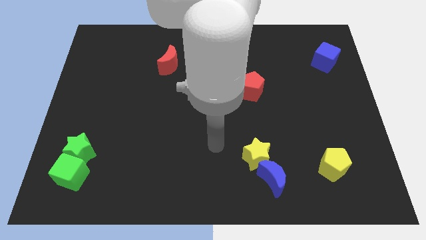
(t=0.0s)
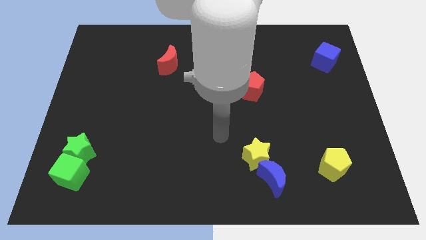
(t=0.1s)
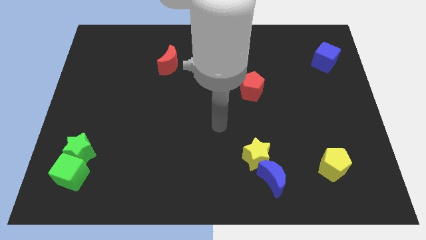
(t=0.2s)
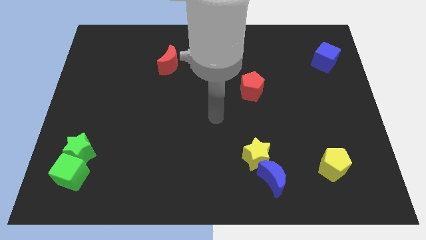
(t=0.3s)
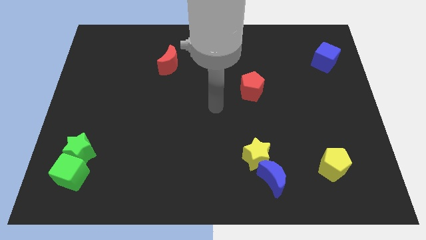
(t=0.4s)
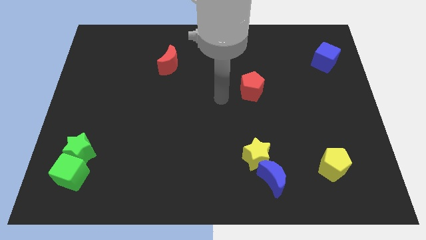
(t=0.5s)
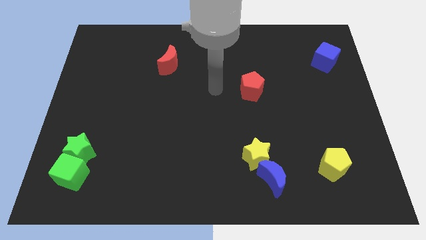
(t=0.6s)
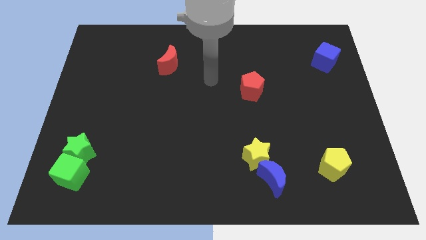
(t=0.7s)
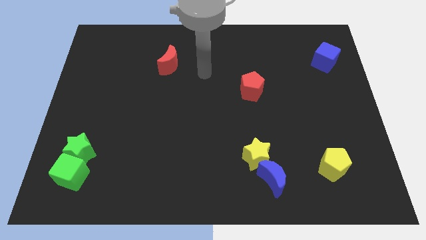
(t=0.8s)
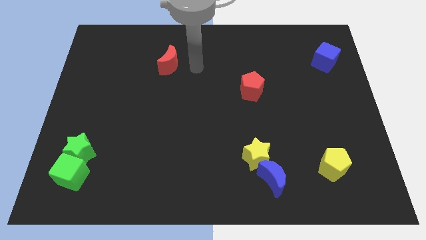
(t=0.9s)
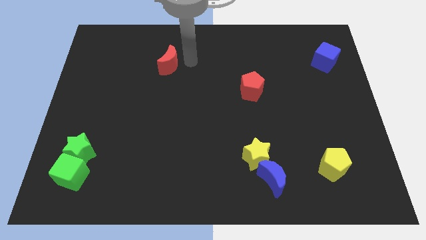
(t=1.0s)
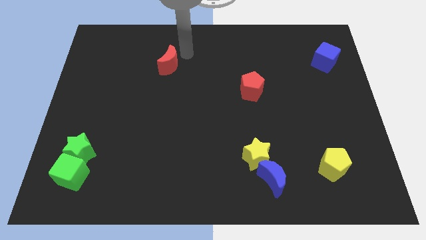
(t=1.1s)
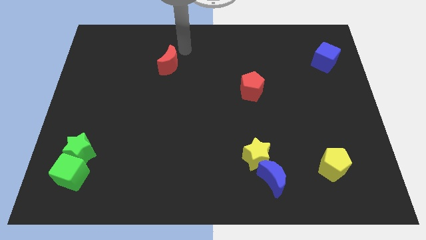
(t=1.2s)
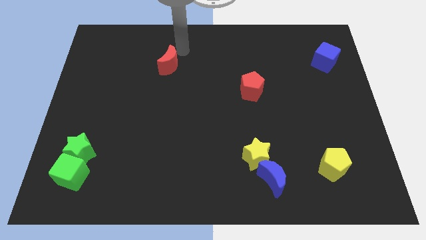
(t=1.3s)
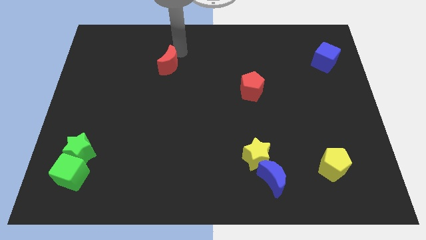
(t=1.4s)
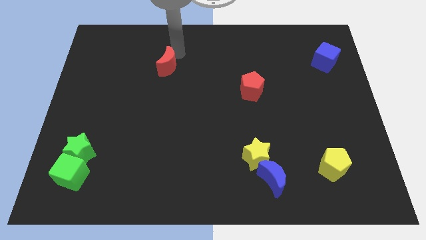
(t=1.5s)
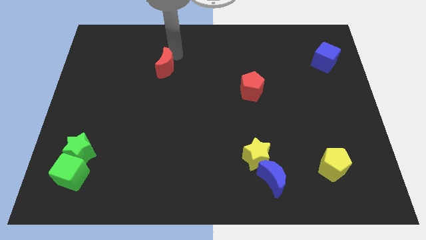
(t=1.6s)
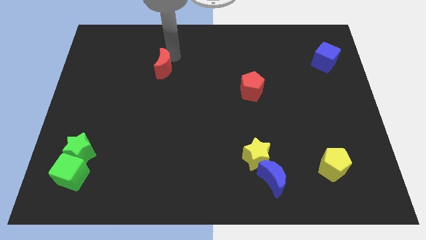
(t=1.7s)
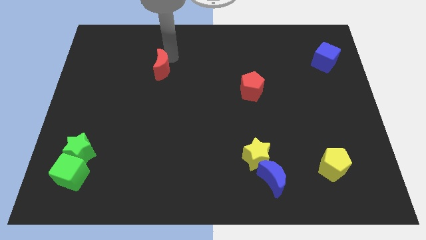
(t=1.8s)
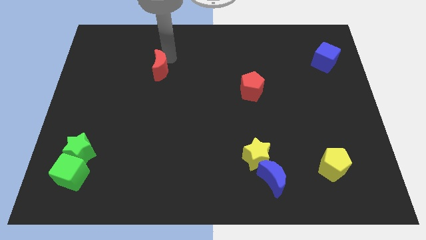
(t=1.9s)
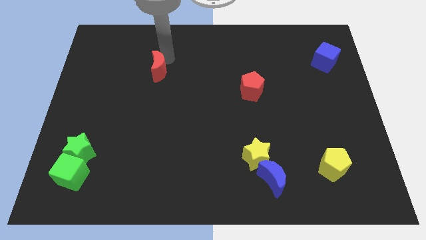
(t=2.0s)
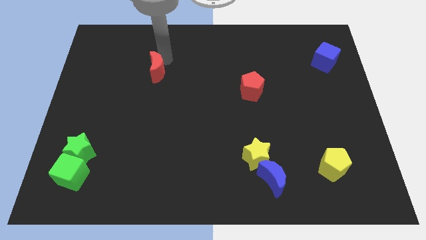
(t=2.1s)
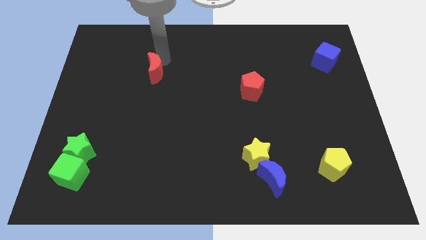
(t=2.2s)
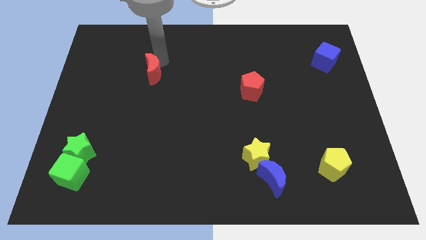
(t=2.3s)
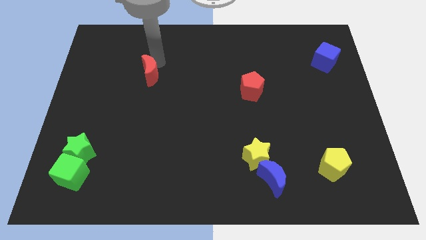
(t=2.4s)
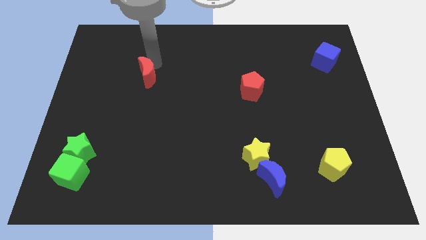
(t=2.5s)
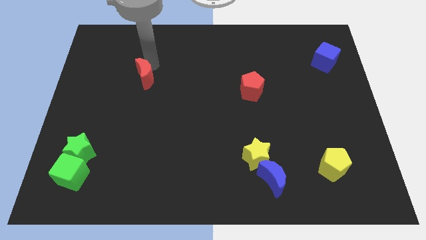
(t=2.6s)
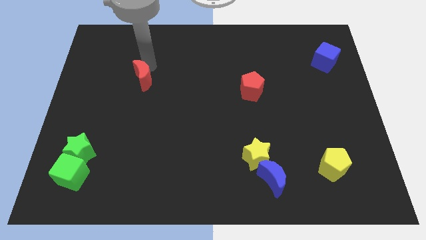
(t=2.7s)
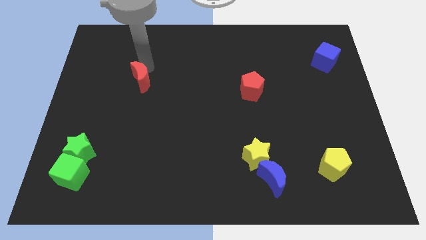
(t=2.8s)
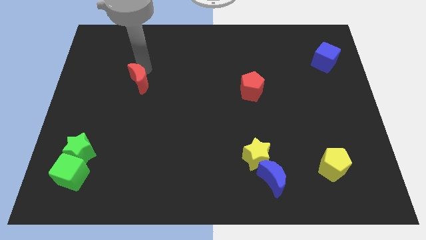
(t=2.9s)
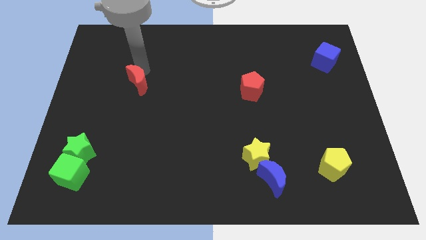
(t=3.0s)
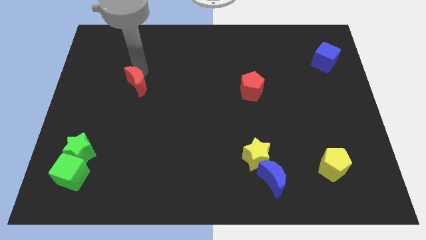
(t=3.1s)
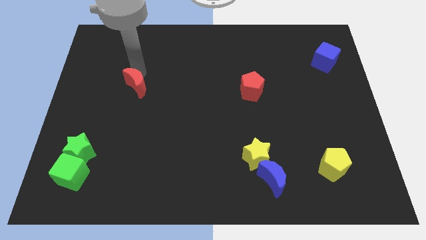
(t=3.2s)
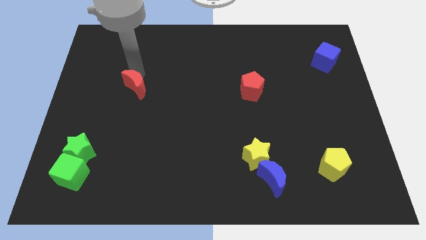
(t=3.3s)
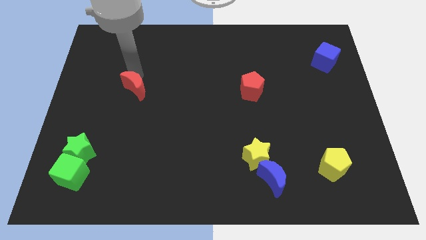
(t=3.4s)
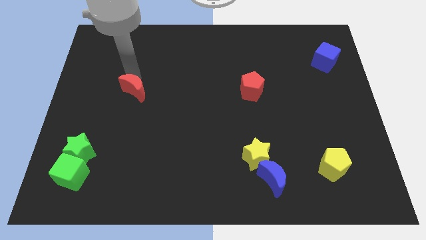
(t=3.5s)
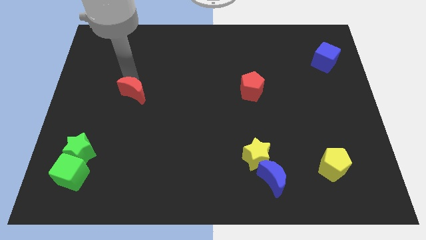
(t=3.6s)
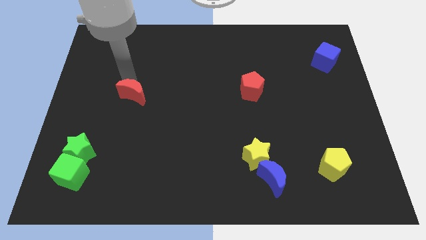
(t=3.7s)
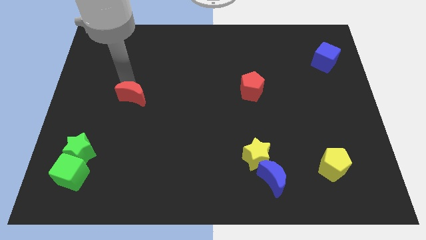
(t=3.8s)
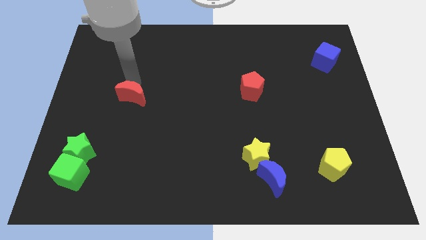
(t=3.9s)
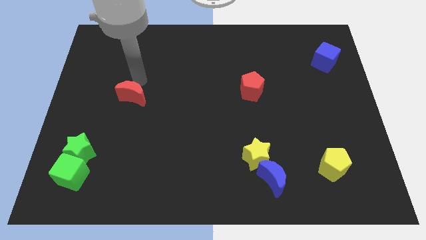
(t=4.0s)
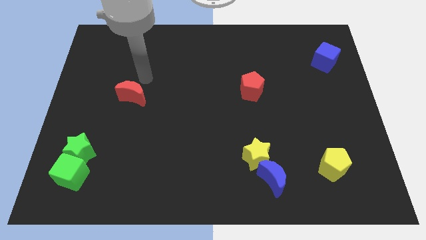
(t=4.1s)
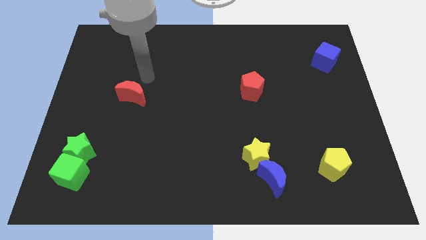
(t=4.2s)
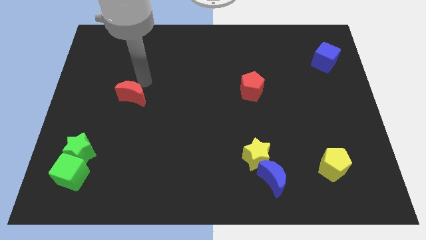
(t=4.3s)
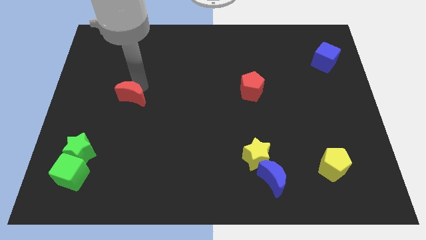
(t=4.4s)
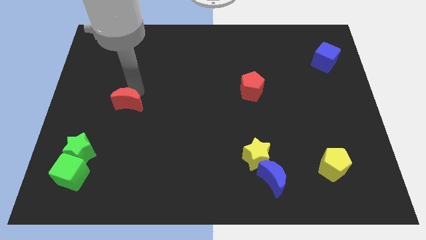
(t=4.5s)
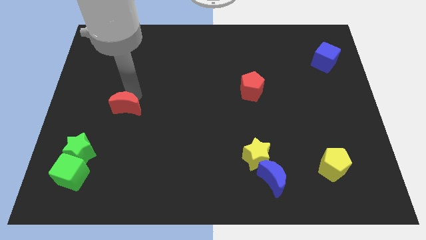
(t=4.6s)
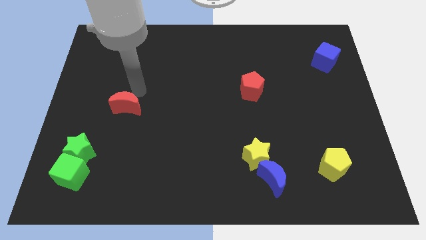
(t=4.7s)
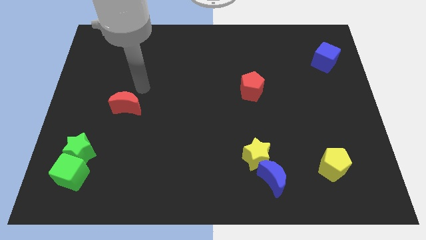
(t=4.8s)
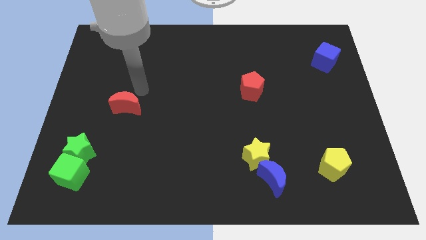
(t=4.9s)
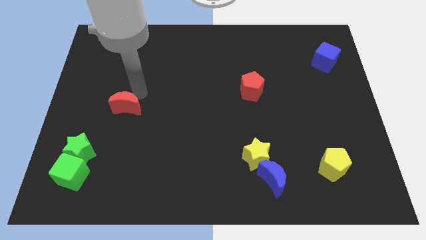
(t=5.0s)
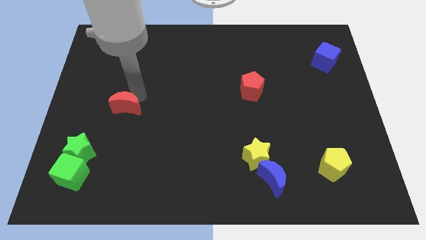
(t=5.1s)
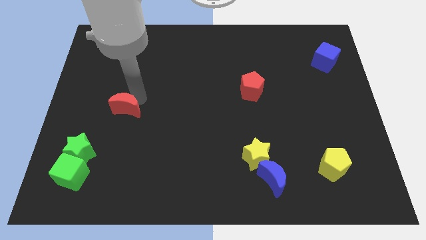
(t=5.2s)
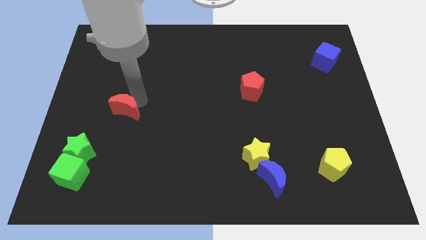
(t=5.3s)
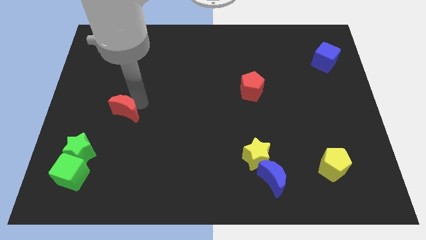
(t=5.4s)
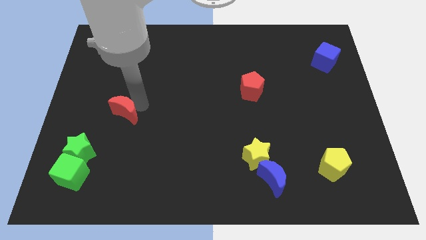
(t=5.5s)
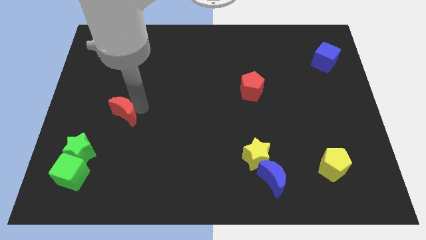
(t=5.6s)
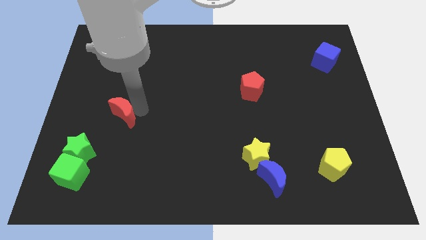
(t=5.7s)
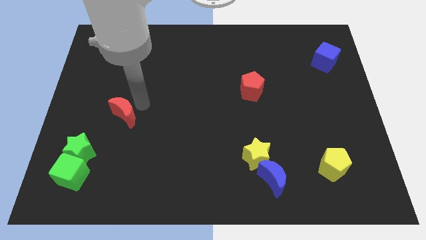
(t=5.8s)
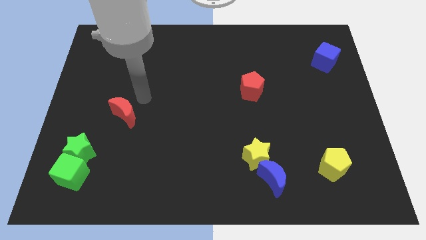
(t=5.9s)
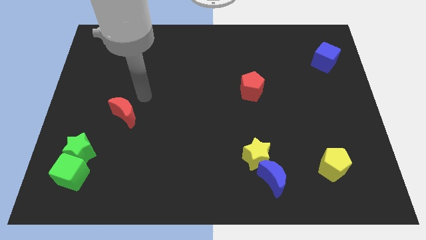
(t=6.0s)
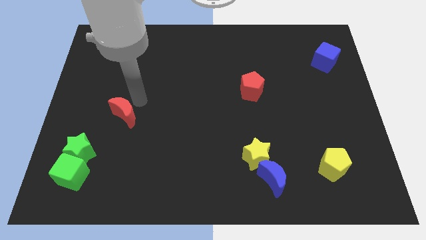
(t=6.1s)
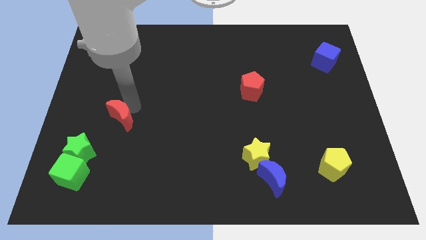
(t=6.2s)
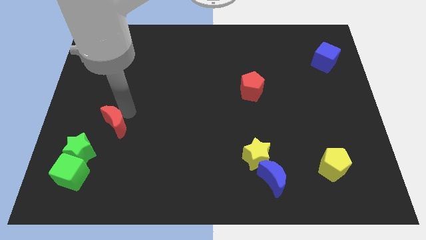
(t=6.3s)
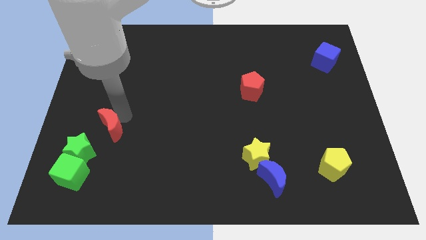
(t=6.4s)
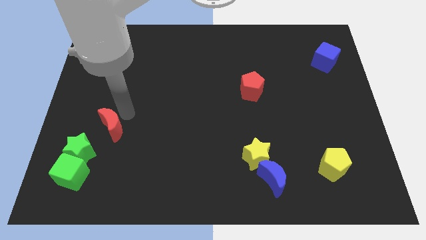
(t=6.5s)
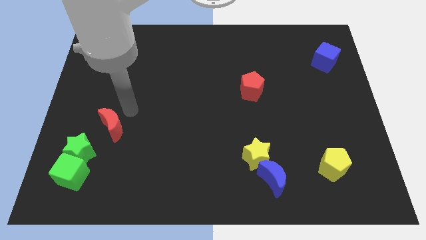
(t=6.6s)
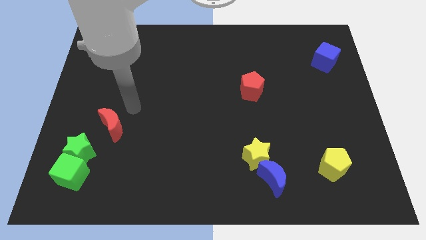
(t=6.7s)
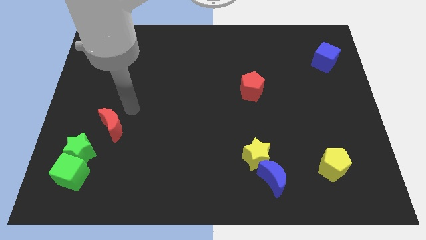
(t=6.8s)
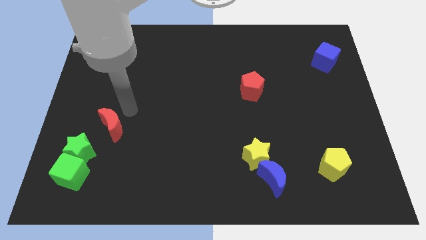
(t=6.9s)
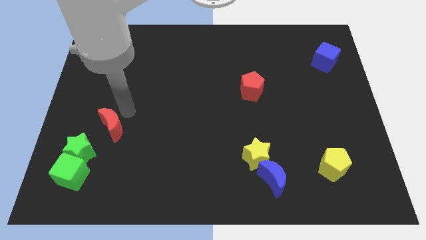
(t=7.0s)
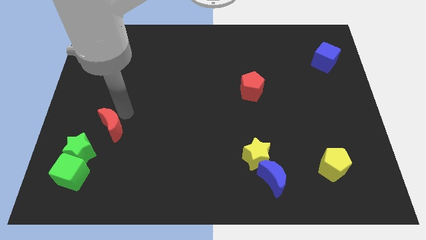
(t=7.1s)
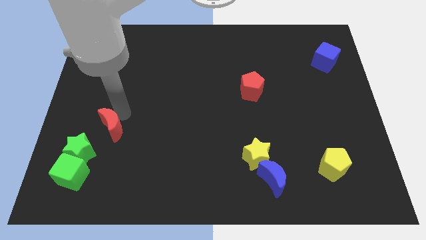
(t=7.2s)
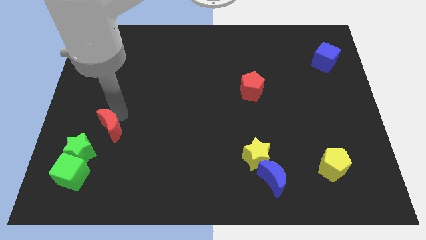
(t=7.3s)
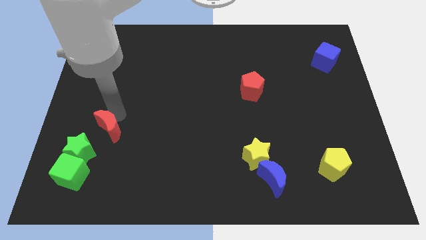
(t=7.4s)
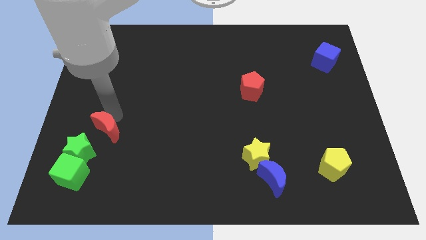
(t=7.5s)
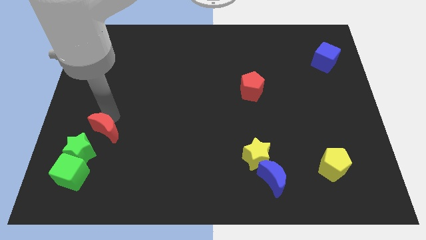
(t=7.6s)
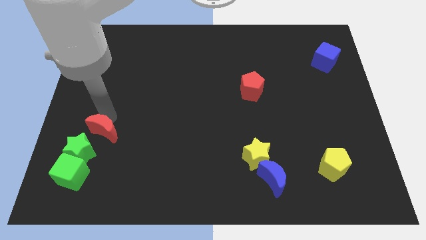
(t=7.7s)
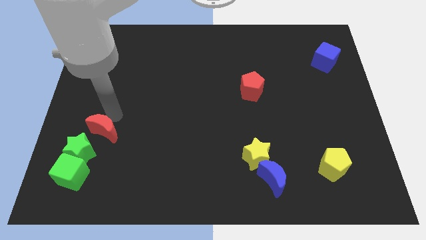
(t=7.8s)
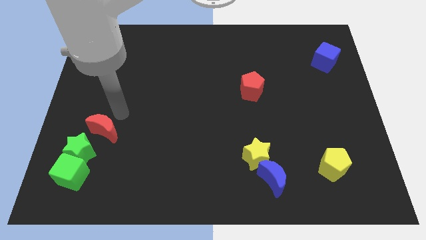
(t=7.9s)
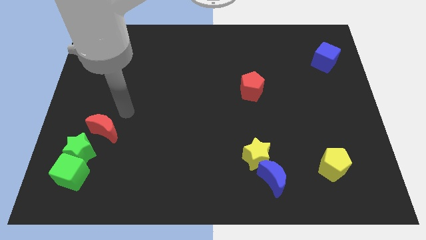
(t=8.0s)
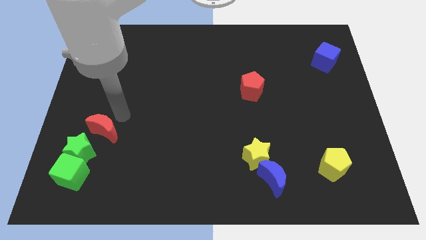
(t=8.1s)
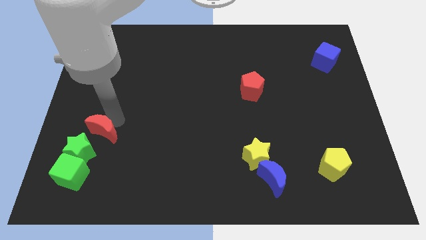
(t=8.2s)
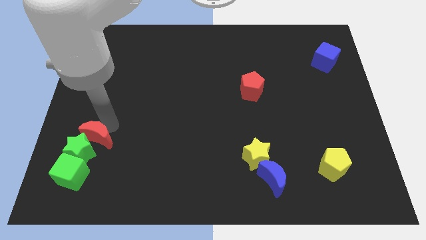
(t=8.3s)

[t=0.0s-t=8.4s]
slide the red moon to the green star
